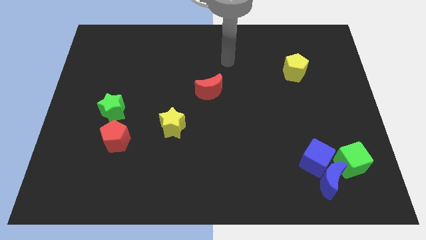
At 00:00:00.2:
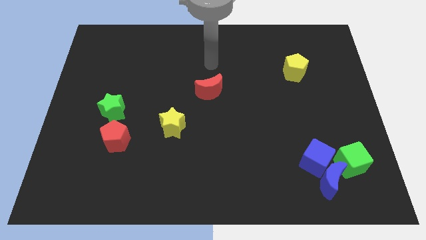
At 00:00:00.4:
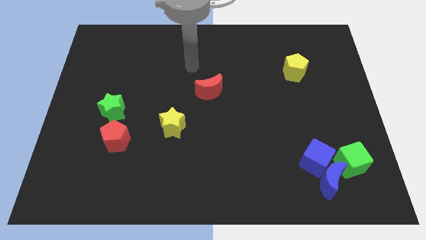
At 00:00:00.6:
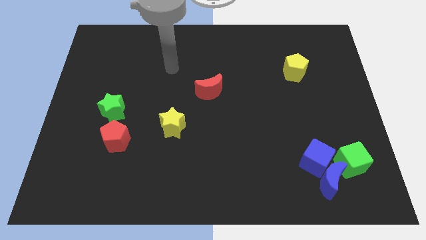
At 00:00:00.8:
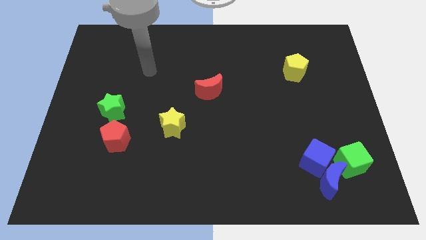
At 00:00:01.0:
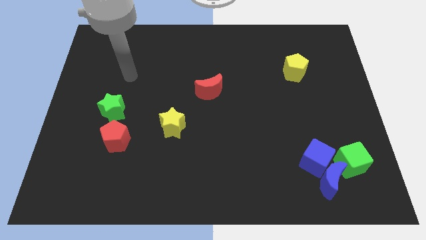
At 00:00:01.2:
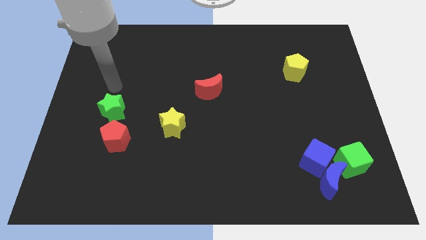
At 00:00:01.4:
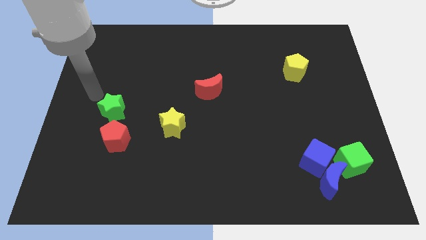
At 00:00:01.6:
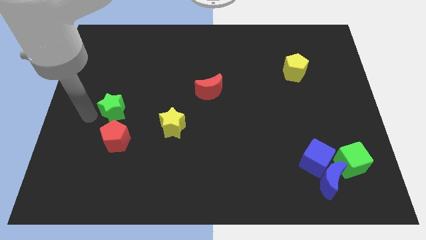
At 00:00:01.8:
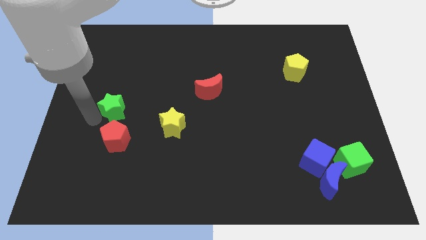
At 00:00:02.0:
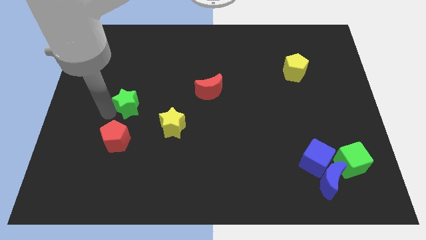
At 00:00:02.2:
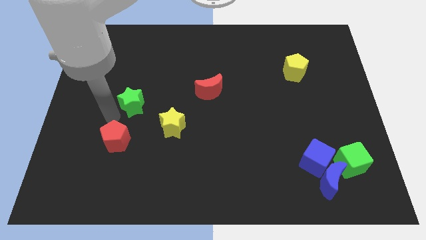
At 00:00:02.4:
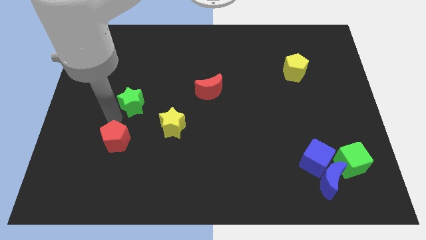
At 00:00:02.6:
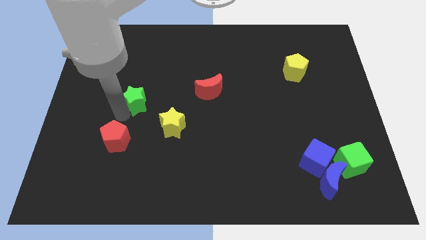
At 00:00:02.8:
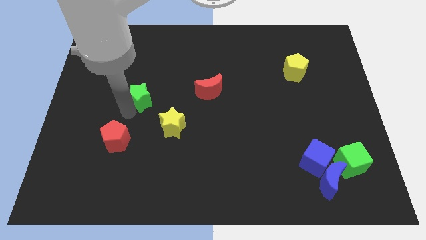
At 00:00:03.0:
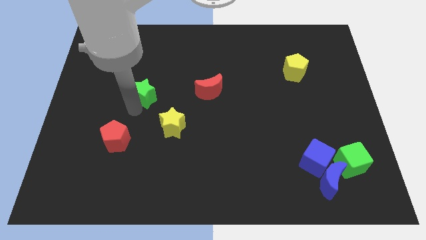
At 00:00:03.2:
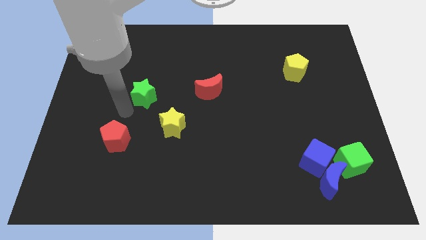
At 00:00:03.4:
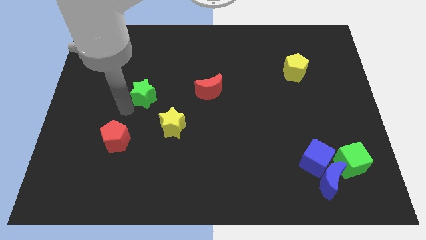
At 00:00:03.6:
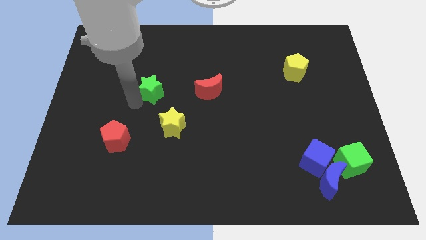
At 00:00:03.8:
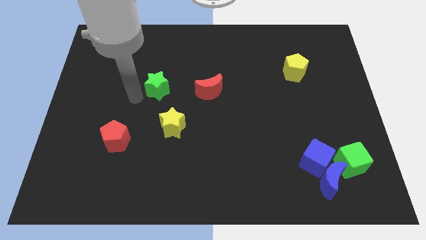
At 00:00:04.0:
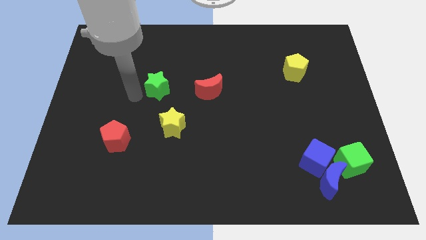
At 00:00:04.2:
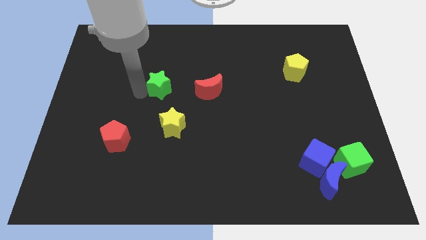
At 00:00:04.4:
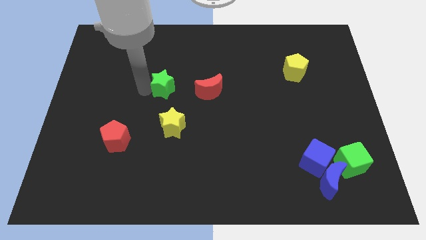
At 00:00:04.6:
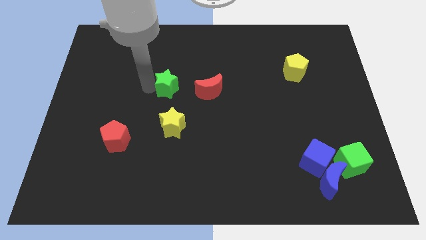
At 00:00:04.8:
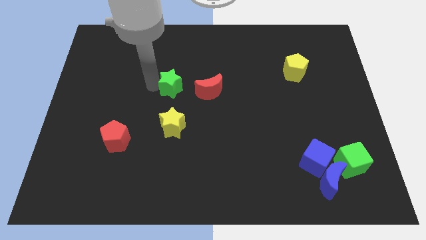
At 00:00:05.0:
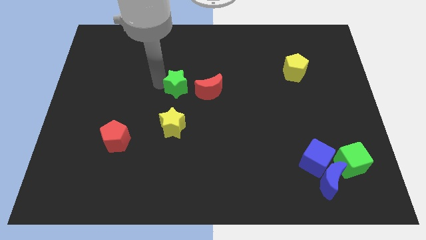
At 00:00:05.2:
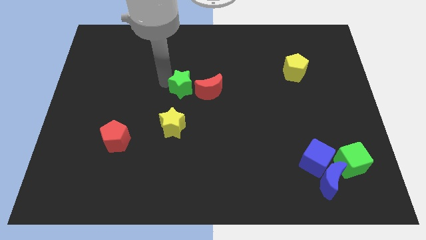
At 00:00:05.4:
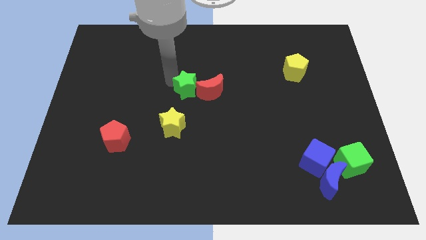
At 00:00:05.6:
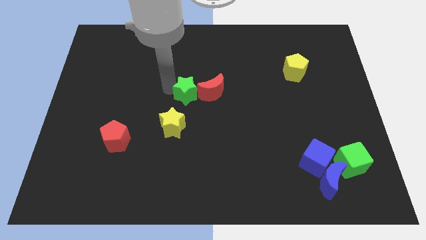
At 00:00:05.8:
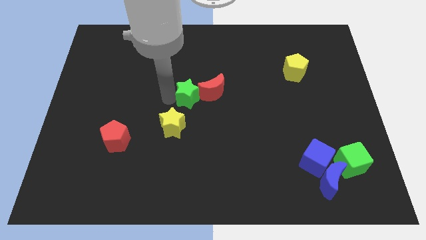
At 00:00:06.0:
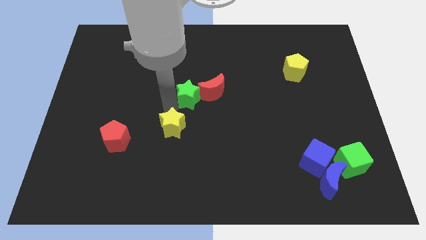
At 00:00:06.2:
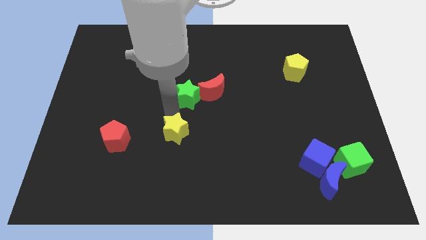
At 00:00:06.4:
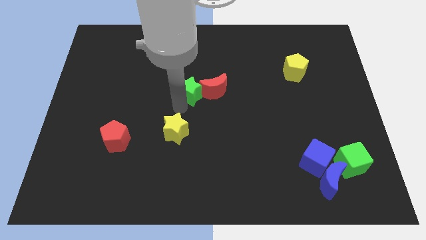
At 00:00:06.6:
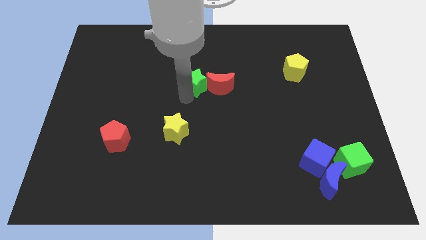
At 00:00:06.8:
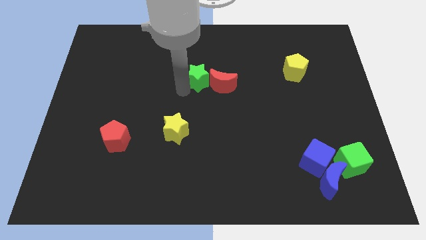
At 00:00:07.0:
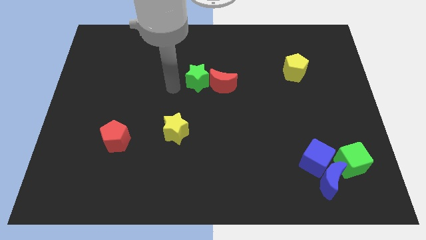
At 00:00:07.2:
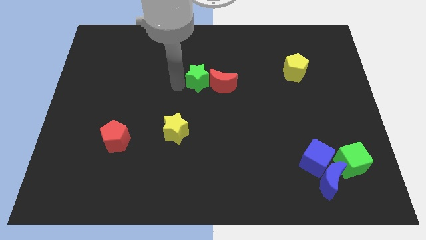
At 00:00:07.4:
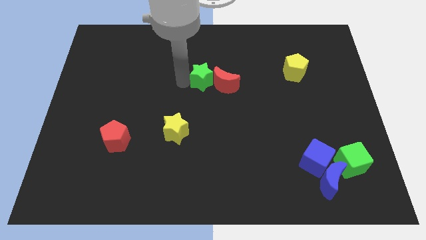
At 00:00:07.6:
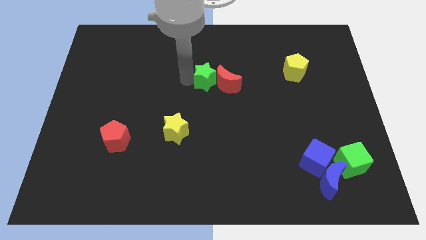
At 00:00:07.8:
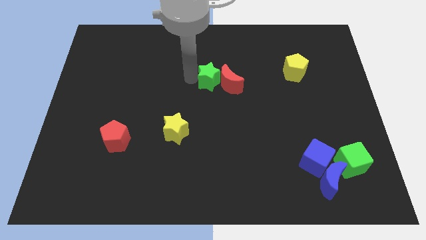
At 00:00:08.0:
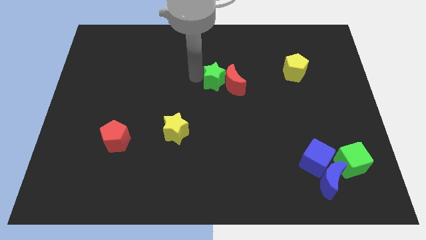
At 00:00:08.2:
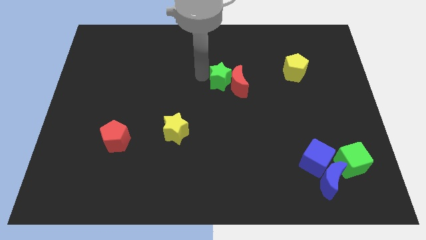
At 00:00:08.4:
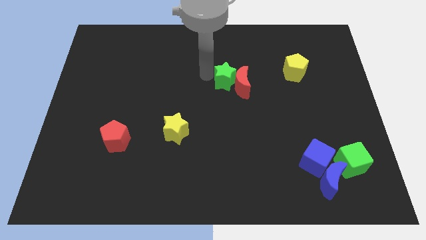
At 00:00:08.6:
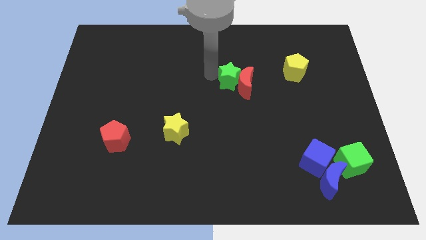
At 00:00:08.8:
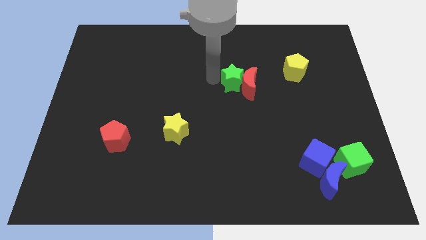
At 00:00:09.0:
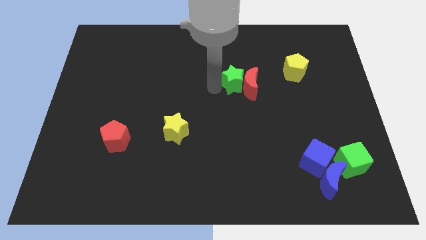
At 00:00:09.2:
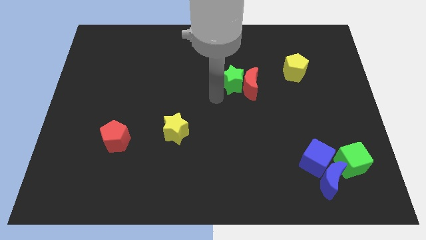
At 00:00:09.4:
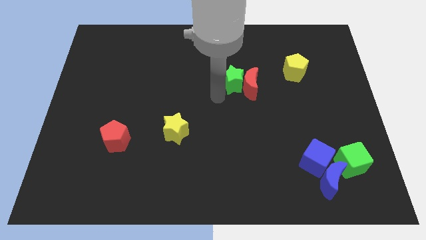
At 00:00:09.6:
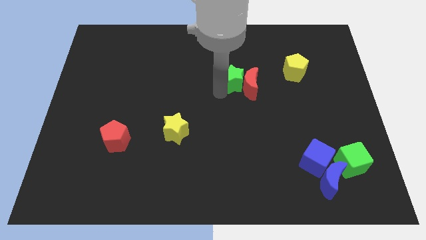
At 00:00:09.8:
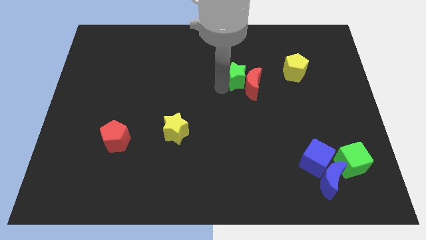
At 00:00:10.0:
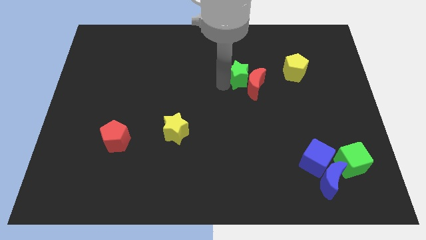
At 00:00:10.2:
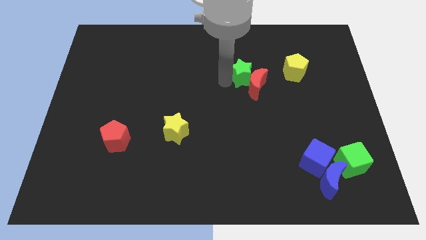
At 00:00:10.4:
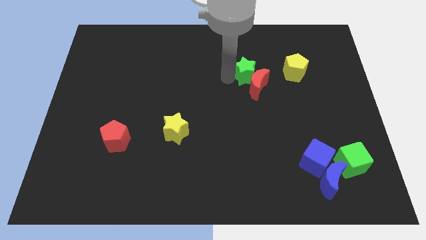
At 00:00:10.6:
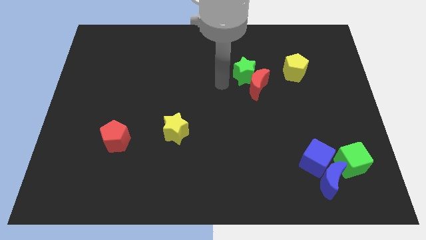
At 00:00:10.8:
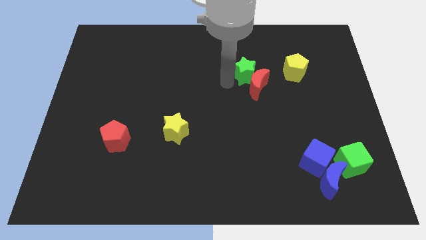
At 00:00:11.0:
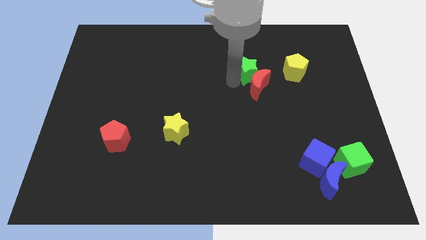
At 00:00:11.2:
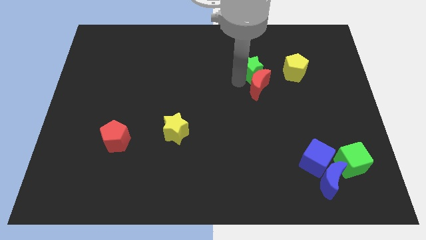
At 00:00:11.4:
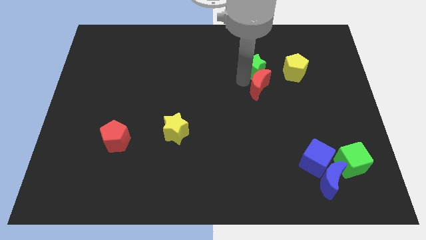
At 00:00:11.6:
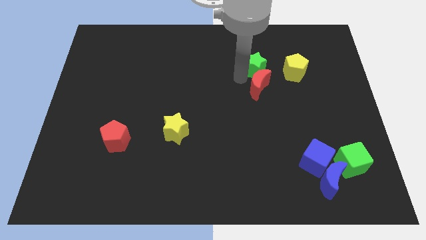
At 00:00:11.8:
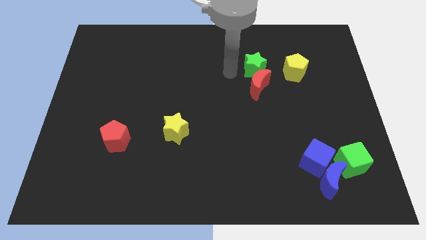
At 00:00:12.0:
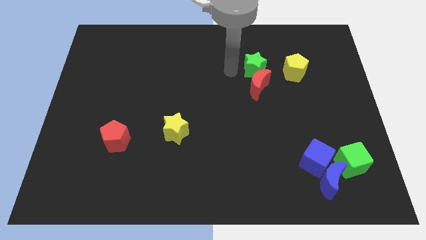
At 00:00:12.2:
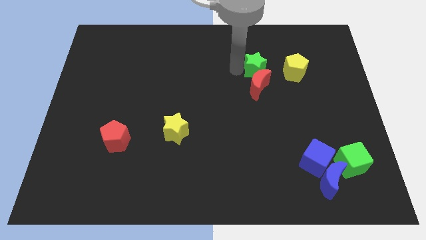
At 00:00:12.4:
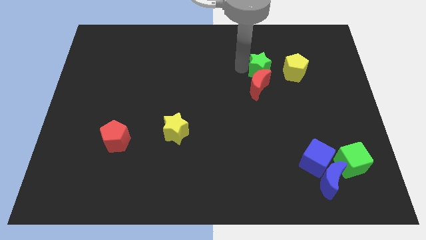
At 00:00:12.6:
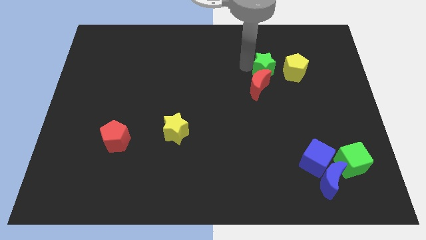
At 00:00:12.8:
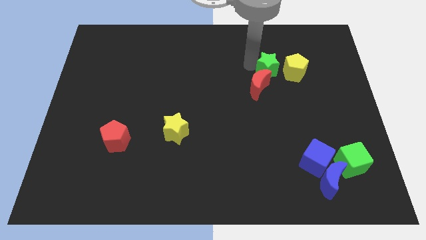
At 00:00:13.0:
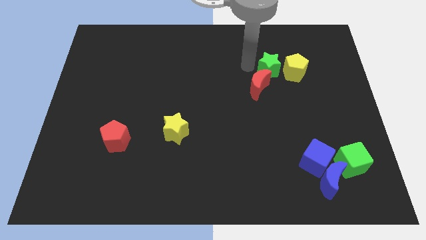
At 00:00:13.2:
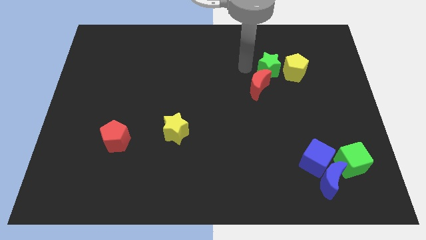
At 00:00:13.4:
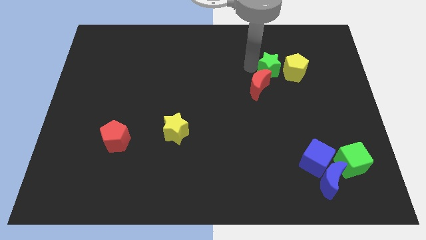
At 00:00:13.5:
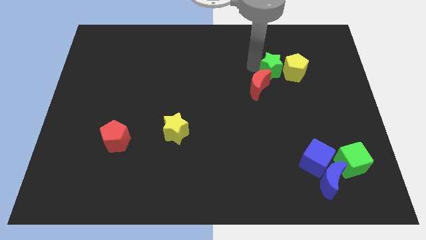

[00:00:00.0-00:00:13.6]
push the green star close to the yellow pentagon
